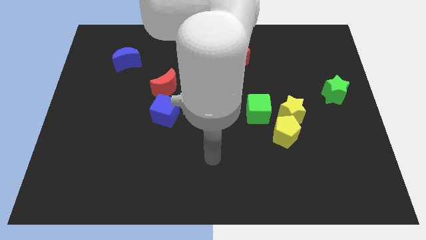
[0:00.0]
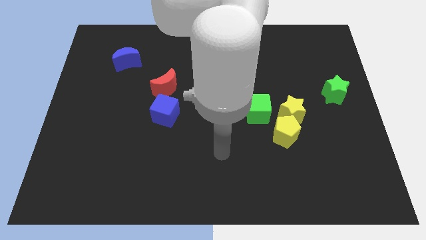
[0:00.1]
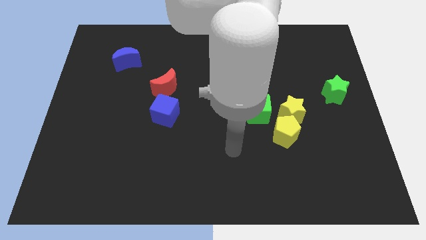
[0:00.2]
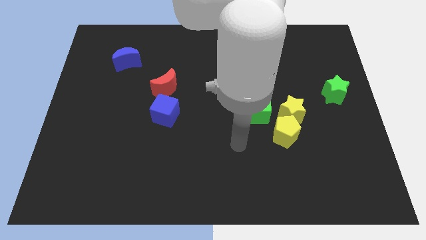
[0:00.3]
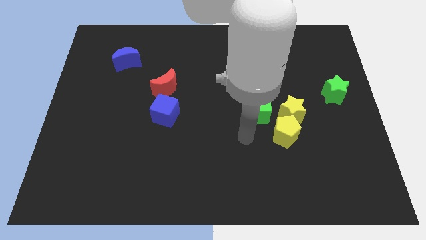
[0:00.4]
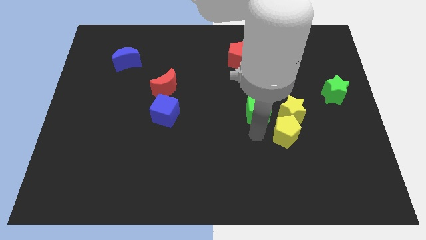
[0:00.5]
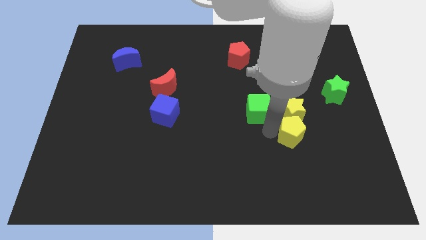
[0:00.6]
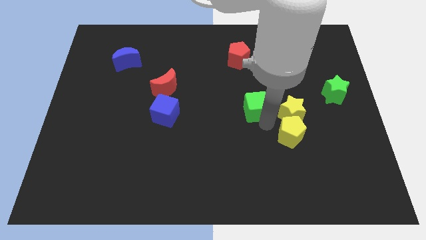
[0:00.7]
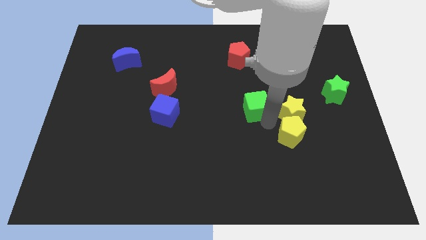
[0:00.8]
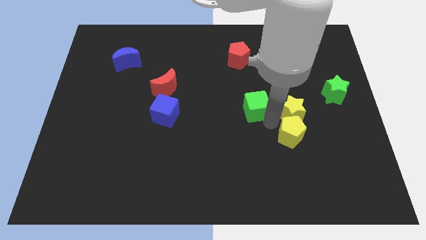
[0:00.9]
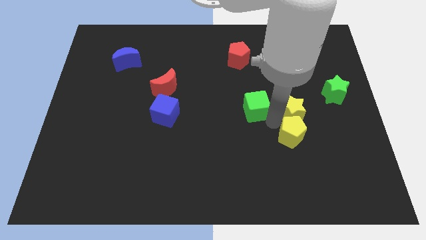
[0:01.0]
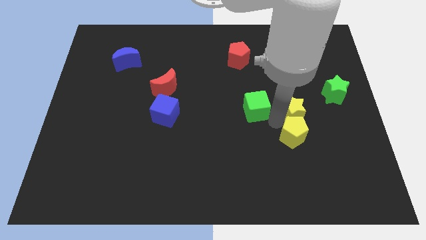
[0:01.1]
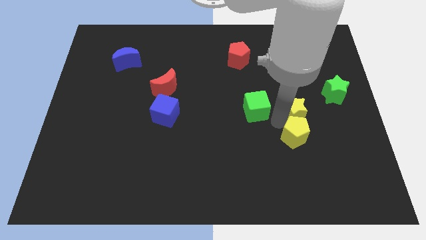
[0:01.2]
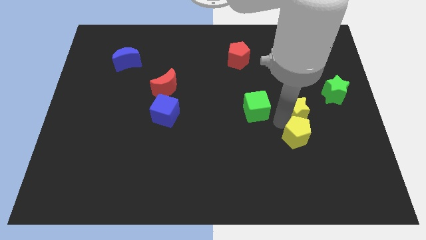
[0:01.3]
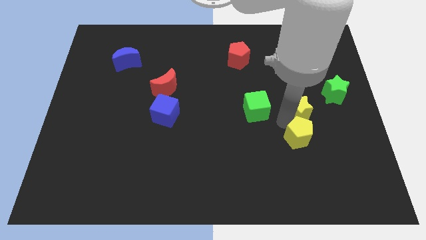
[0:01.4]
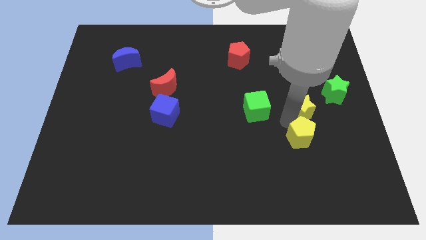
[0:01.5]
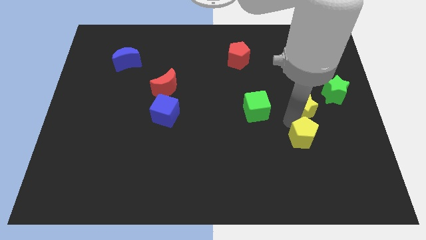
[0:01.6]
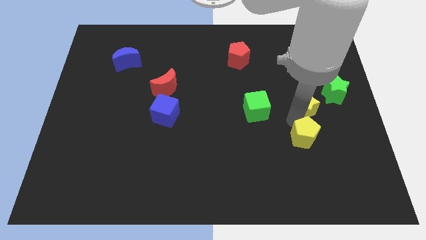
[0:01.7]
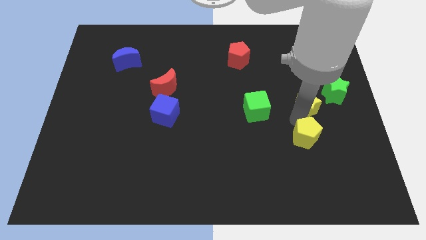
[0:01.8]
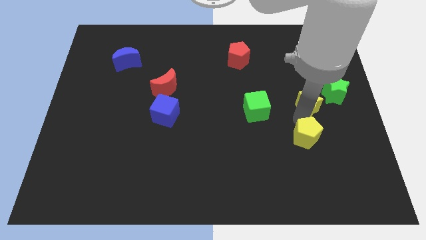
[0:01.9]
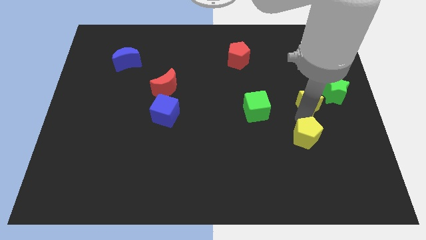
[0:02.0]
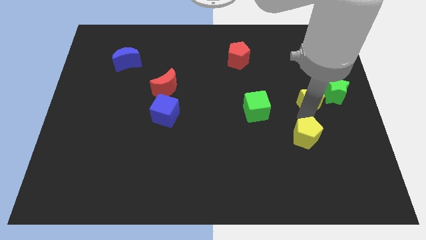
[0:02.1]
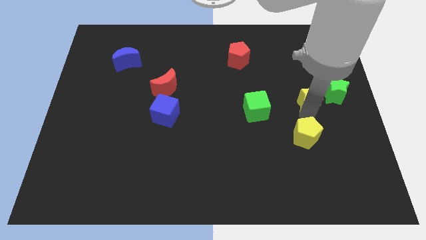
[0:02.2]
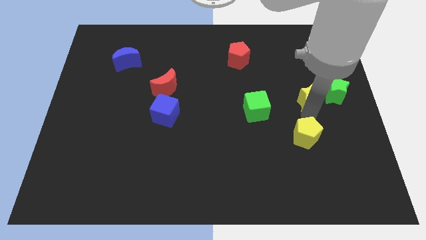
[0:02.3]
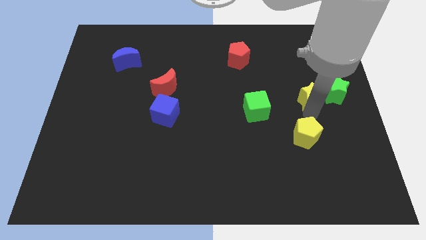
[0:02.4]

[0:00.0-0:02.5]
move the yellow star away from the yellow pentagon and green cube

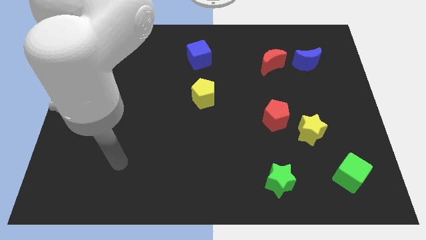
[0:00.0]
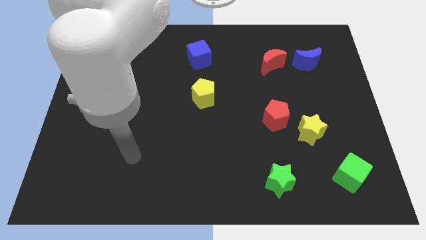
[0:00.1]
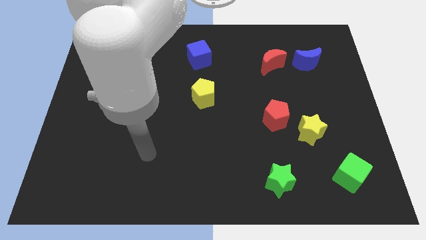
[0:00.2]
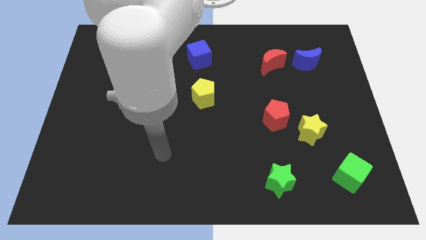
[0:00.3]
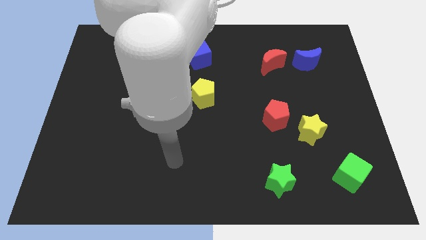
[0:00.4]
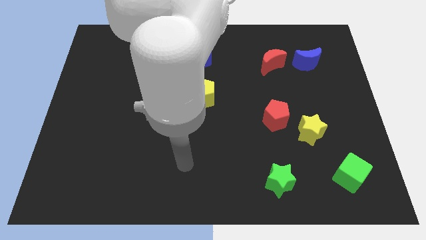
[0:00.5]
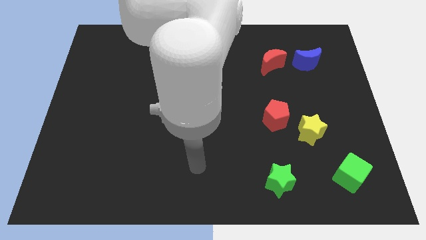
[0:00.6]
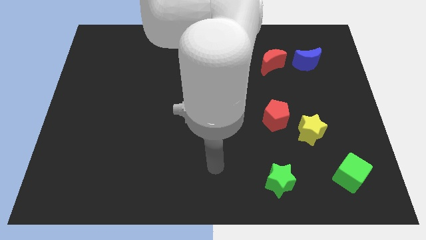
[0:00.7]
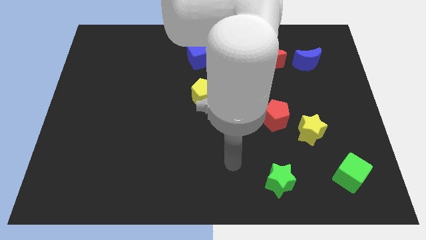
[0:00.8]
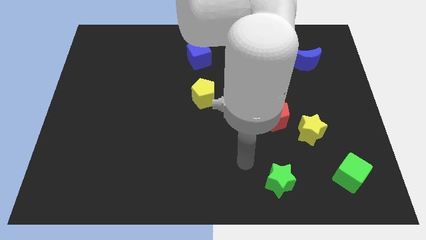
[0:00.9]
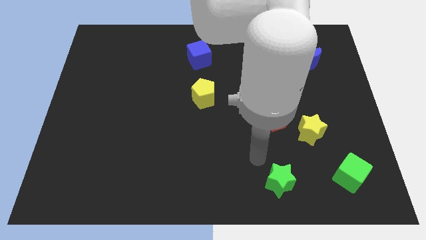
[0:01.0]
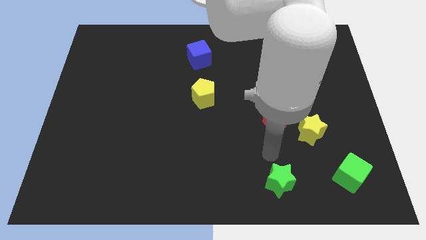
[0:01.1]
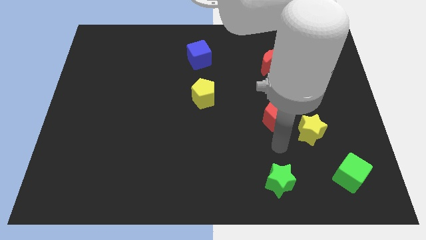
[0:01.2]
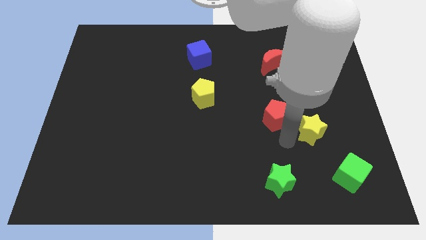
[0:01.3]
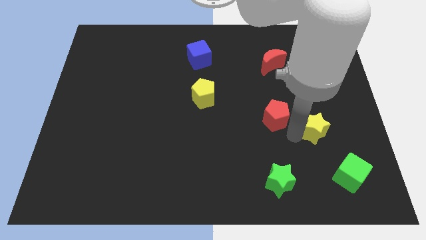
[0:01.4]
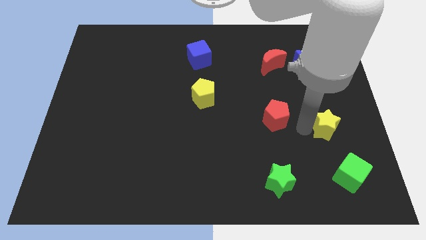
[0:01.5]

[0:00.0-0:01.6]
separate the red pentagon from the yellow star

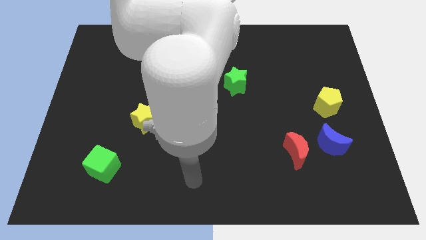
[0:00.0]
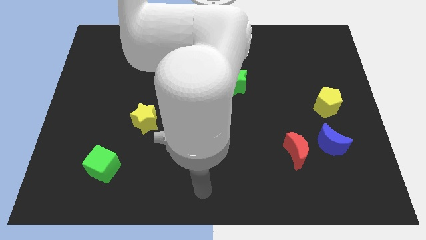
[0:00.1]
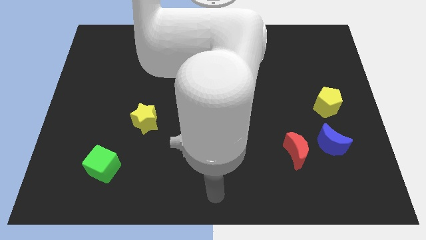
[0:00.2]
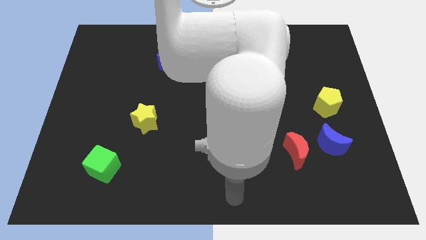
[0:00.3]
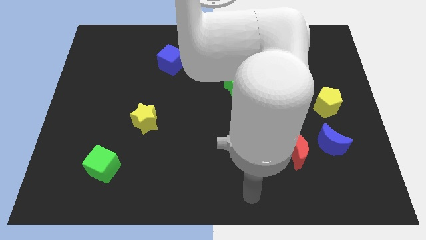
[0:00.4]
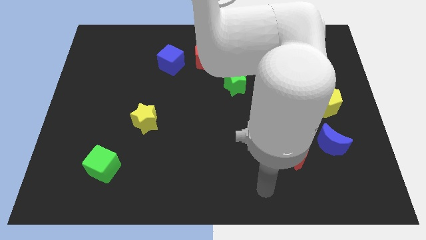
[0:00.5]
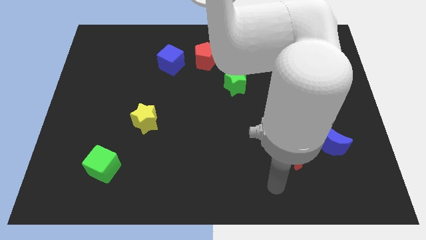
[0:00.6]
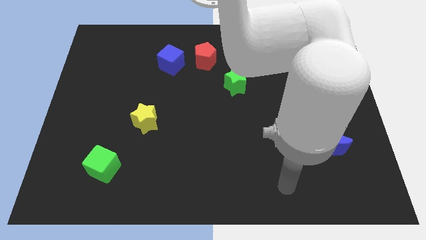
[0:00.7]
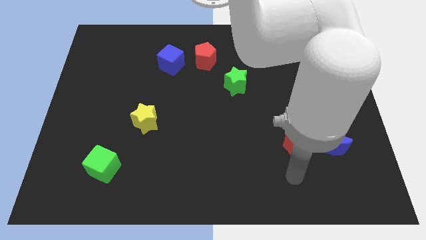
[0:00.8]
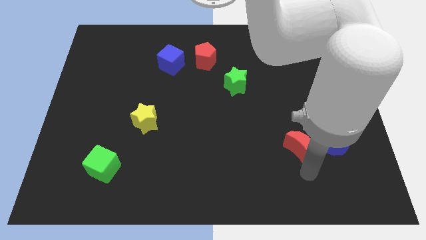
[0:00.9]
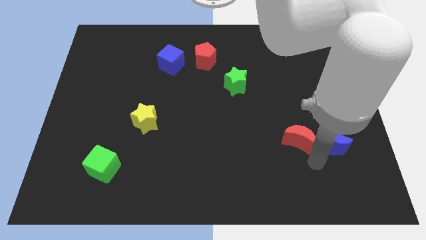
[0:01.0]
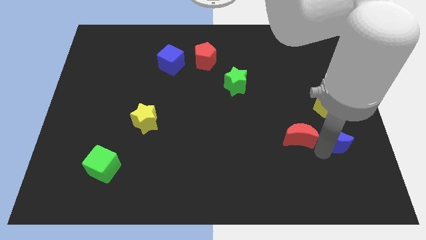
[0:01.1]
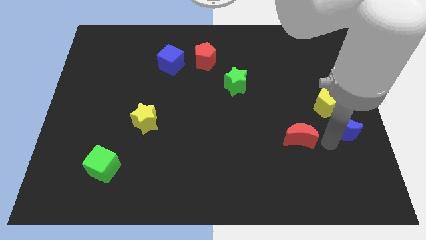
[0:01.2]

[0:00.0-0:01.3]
separate the red moon from the blue moon

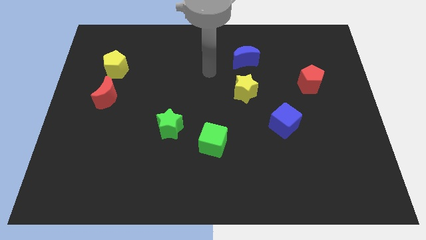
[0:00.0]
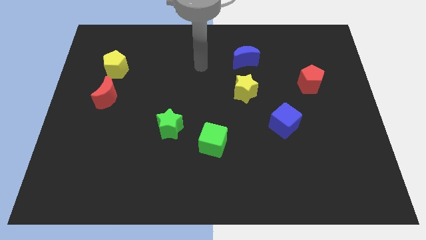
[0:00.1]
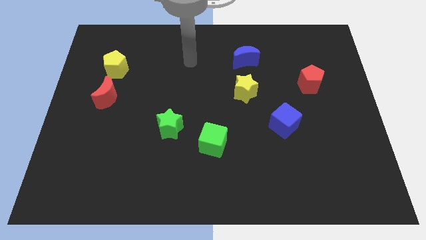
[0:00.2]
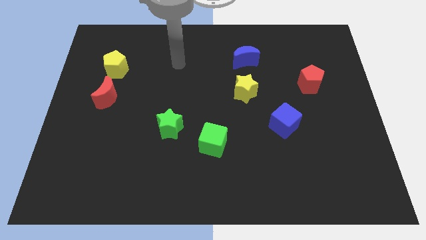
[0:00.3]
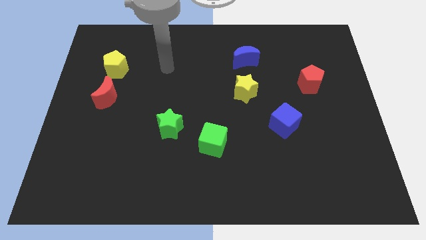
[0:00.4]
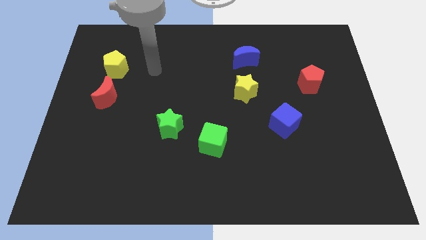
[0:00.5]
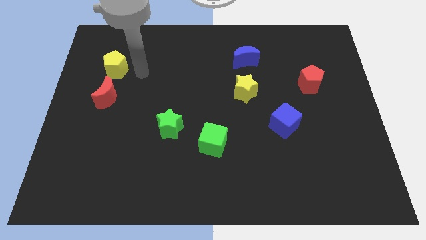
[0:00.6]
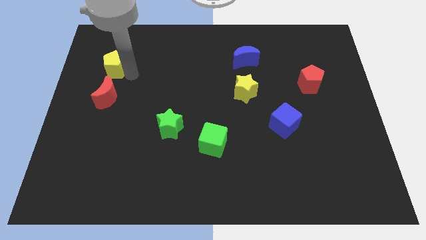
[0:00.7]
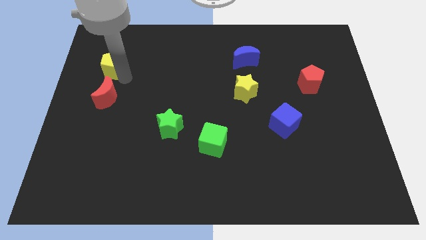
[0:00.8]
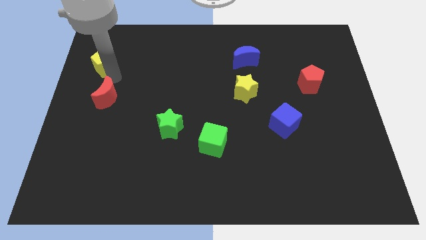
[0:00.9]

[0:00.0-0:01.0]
separate the red moon from the yellow pentagon

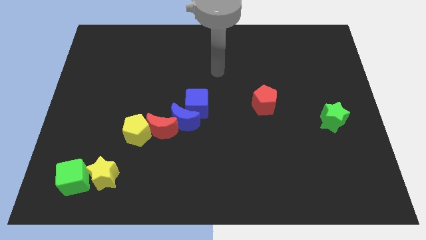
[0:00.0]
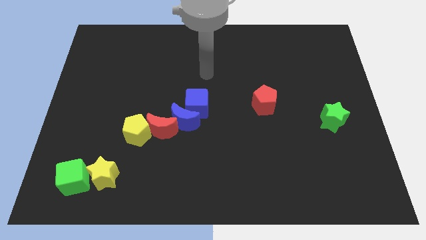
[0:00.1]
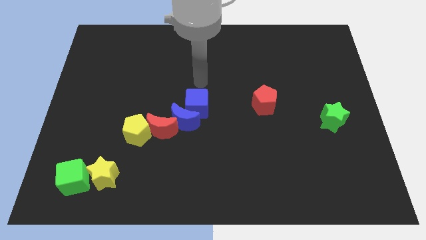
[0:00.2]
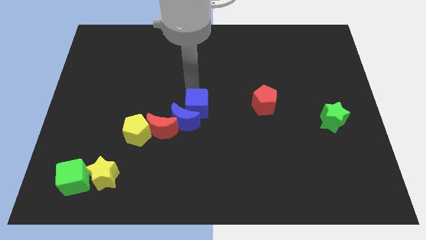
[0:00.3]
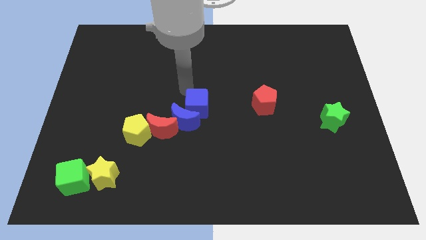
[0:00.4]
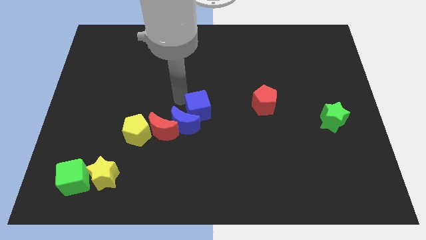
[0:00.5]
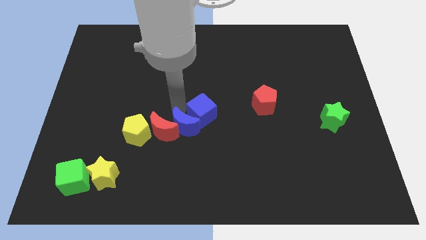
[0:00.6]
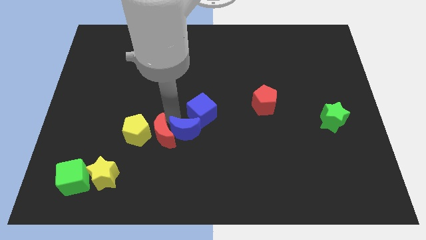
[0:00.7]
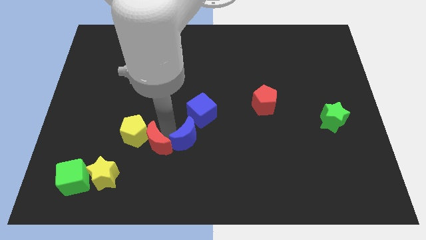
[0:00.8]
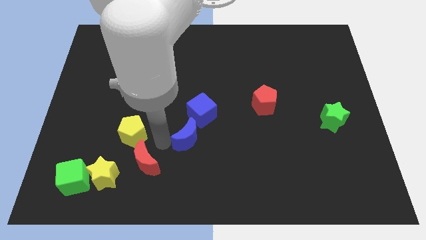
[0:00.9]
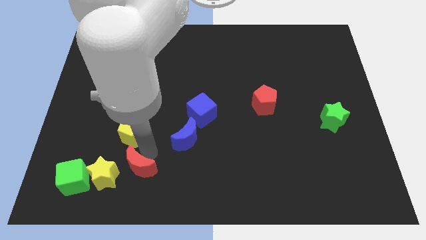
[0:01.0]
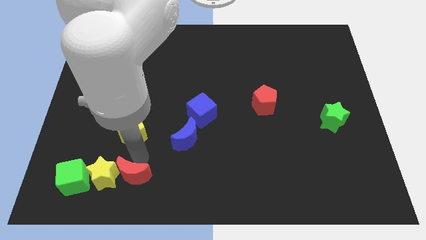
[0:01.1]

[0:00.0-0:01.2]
move the yellow pentagon away from the red moon

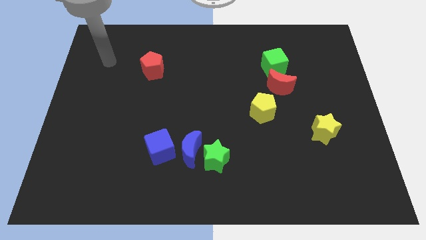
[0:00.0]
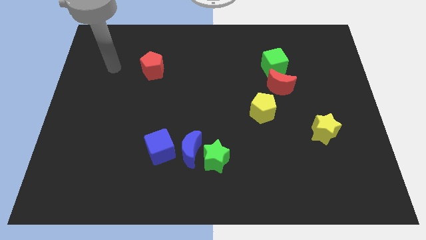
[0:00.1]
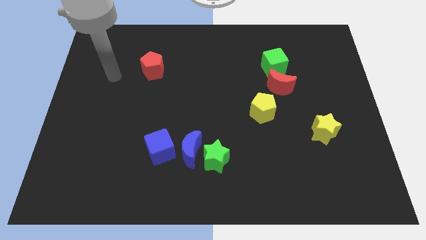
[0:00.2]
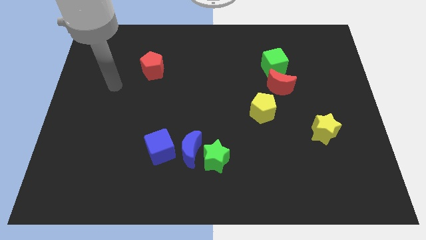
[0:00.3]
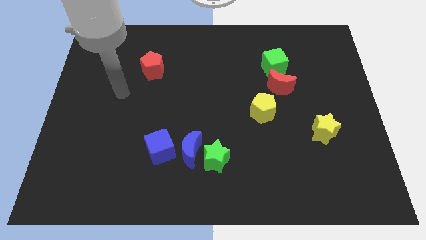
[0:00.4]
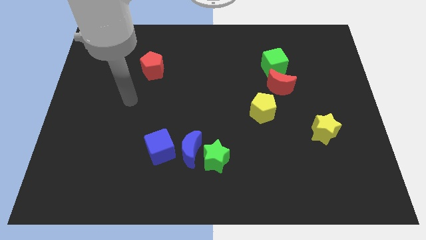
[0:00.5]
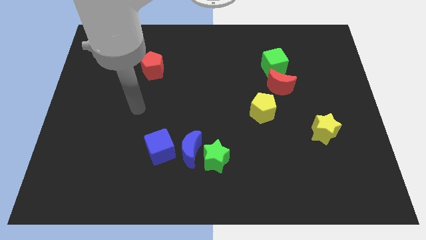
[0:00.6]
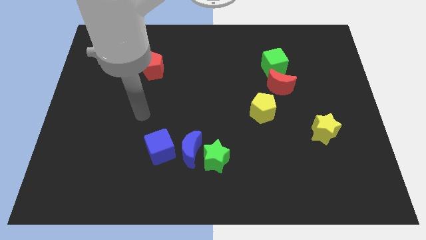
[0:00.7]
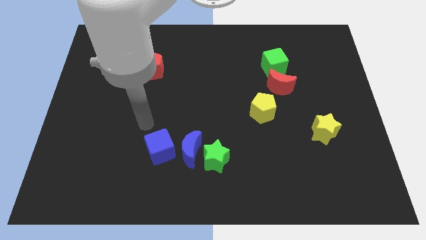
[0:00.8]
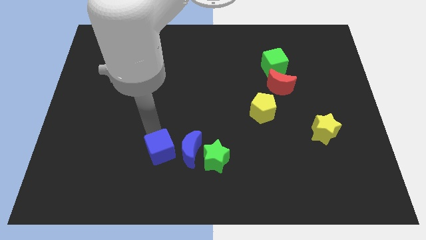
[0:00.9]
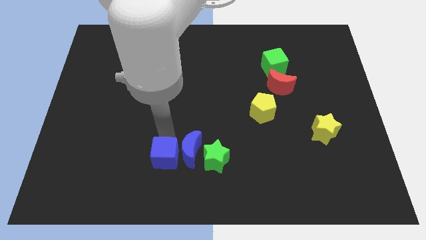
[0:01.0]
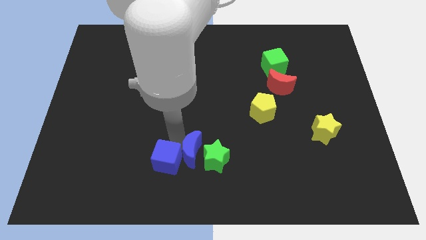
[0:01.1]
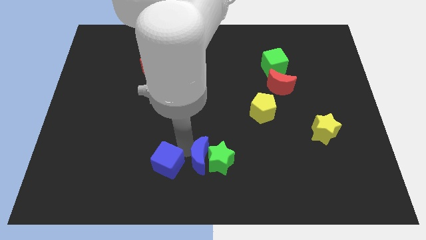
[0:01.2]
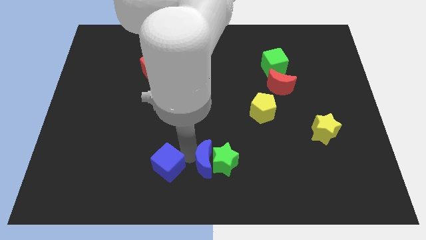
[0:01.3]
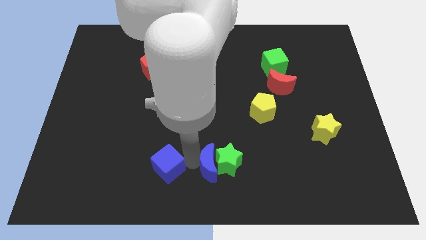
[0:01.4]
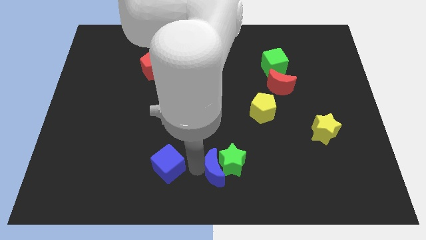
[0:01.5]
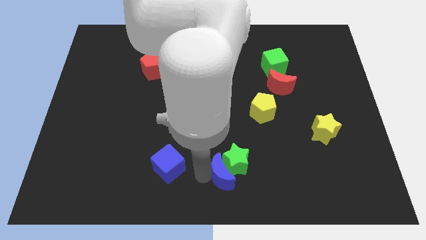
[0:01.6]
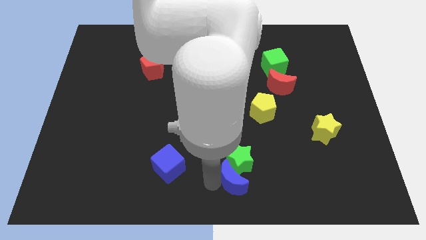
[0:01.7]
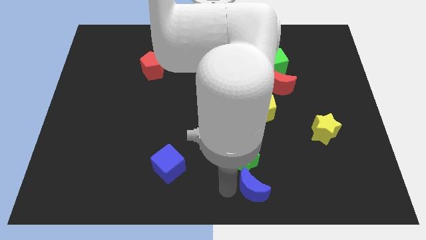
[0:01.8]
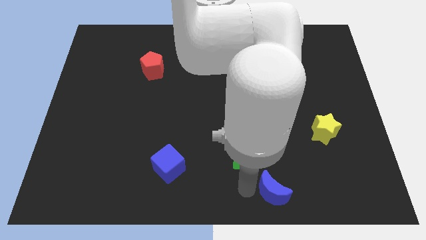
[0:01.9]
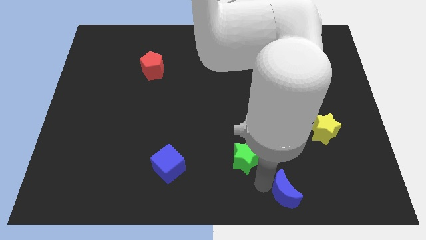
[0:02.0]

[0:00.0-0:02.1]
pull the green star apart from the blue moon
